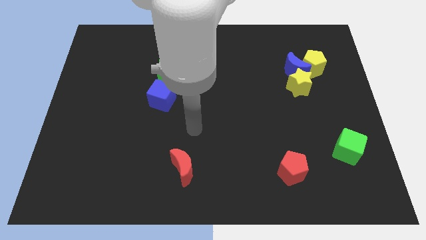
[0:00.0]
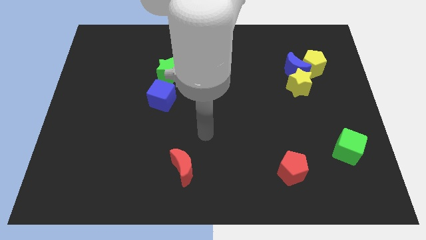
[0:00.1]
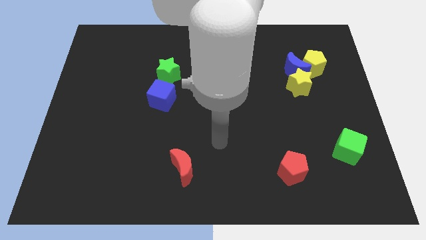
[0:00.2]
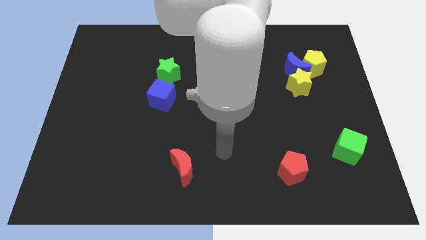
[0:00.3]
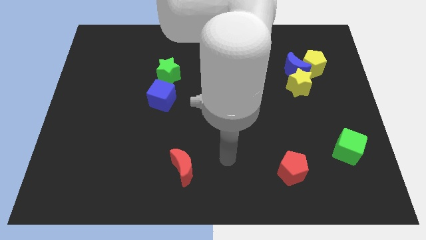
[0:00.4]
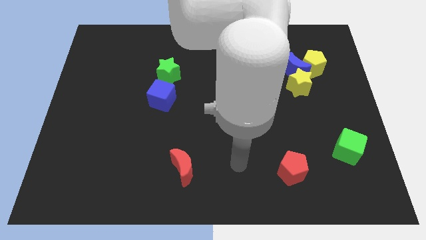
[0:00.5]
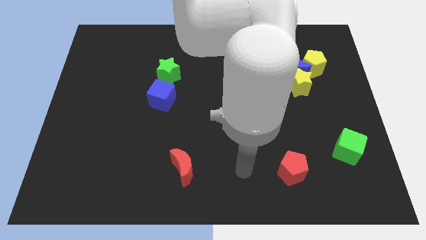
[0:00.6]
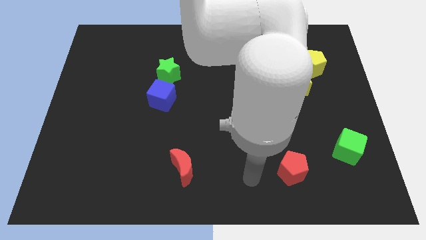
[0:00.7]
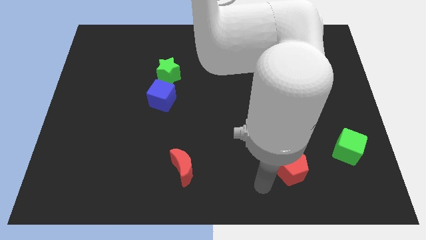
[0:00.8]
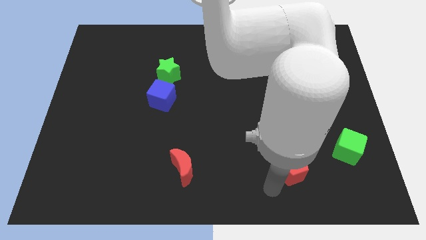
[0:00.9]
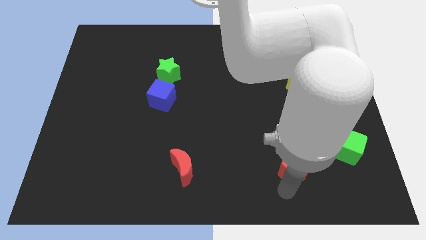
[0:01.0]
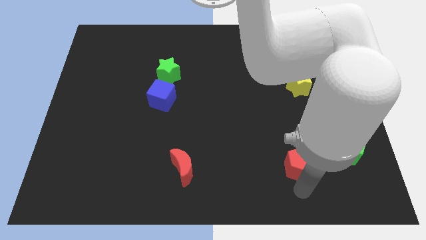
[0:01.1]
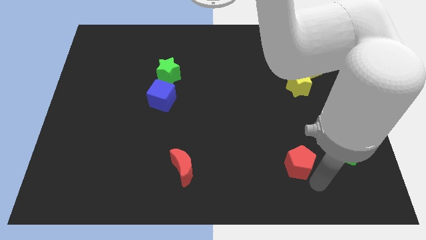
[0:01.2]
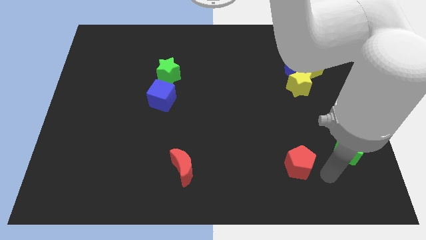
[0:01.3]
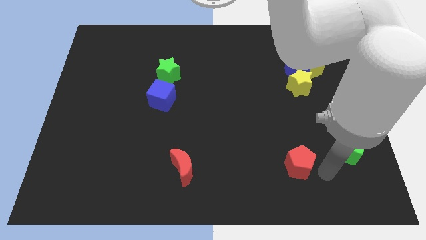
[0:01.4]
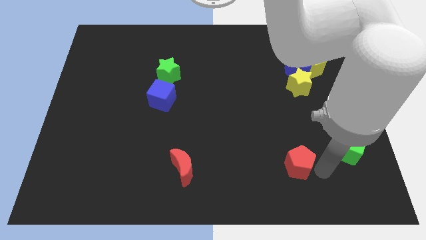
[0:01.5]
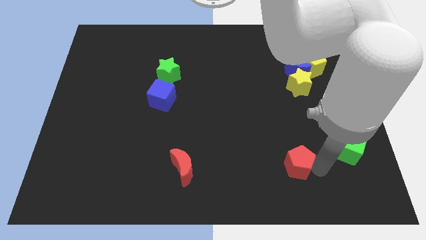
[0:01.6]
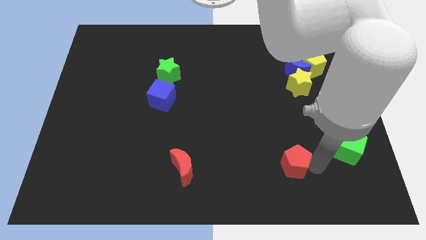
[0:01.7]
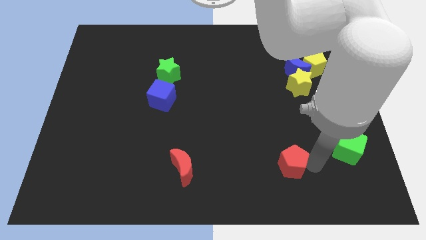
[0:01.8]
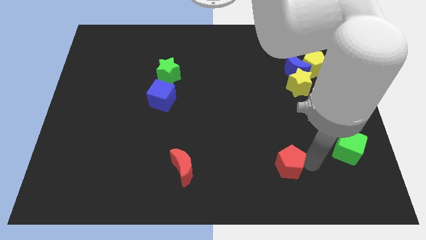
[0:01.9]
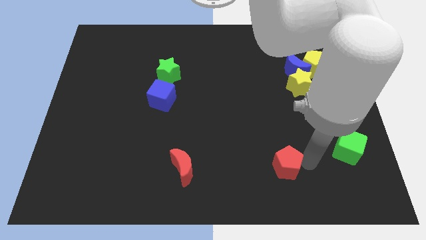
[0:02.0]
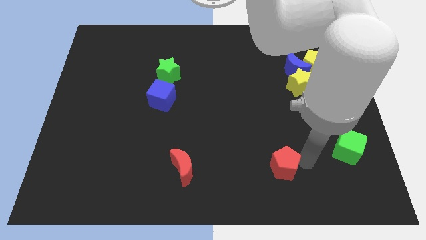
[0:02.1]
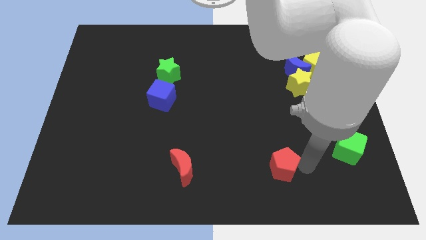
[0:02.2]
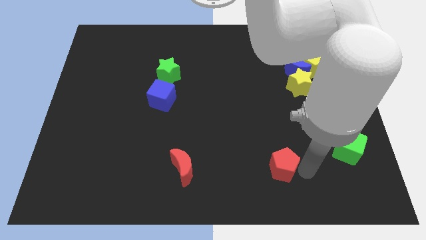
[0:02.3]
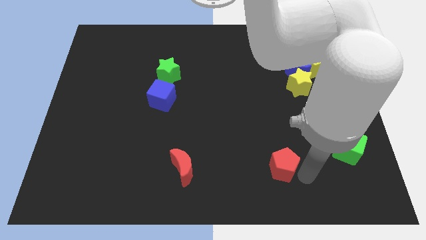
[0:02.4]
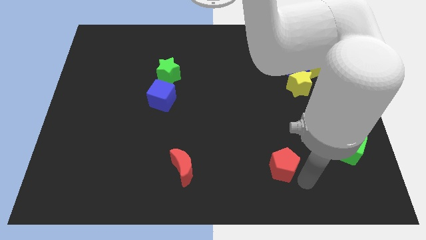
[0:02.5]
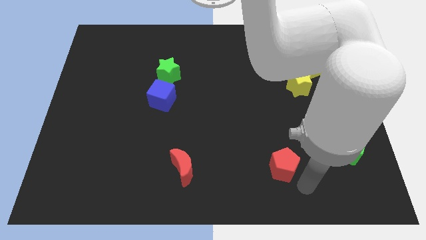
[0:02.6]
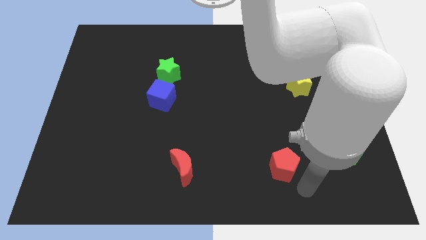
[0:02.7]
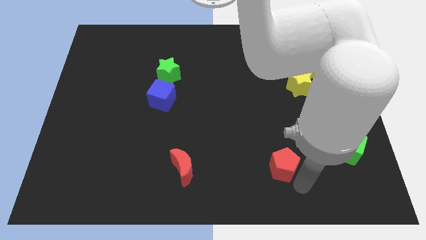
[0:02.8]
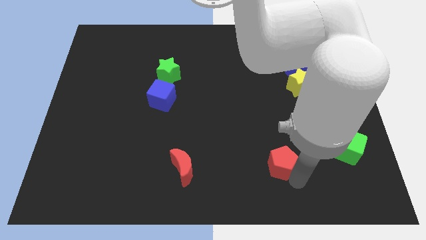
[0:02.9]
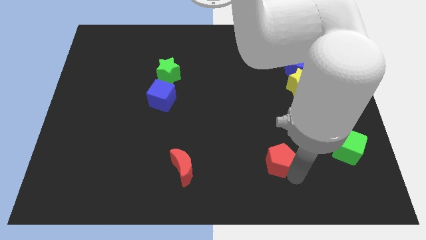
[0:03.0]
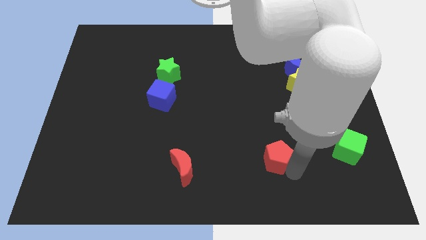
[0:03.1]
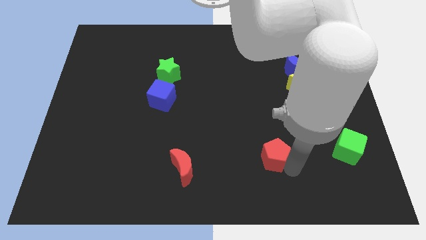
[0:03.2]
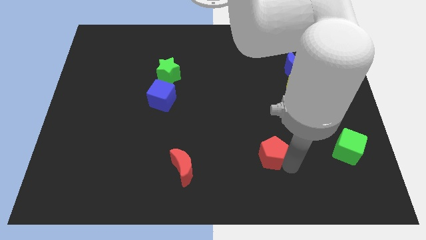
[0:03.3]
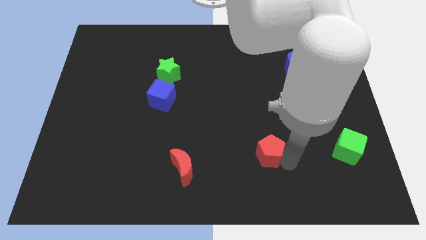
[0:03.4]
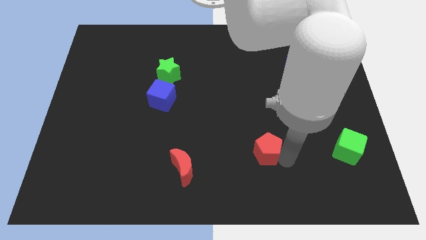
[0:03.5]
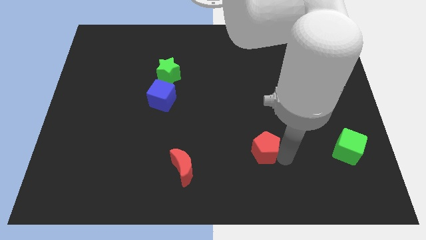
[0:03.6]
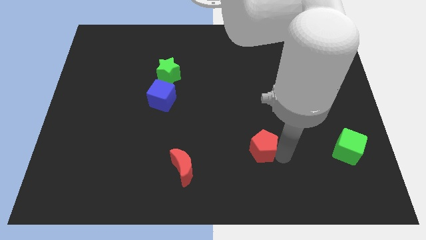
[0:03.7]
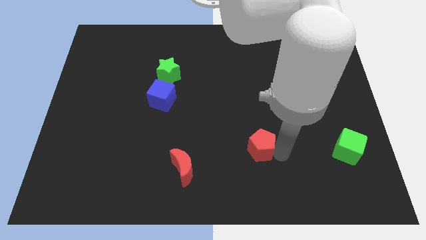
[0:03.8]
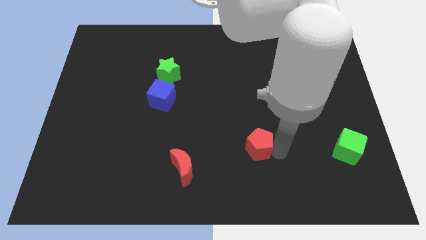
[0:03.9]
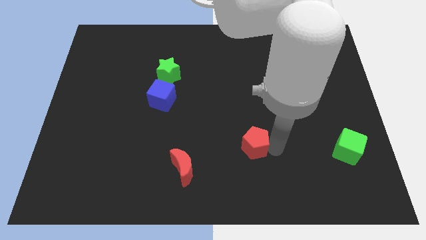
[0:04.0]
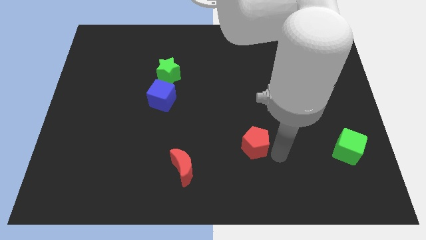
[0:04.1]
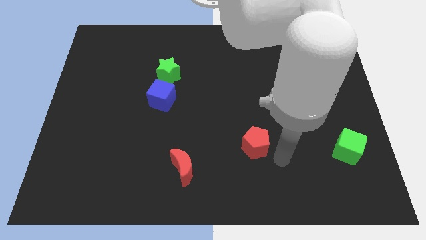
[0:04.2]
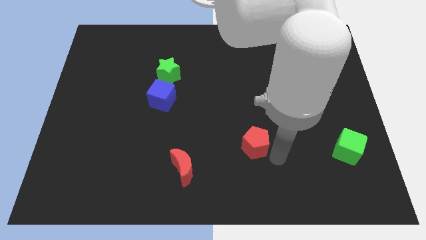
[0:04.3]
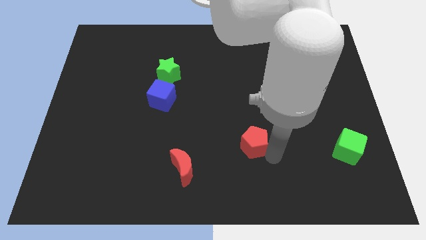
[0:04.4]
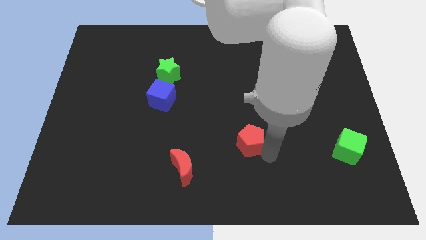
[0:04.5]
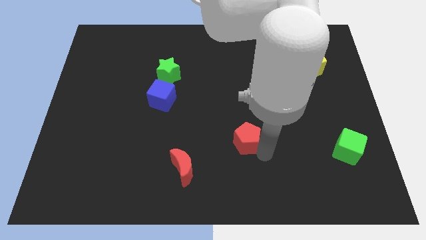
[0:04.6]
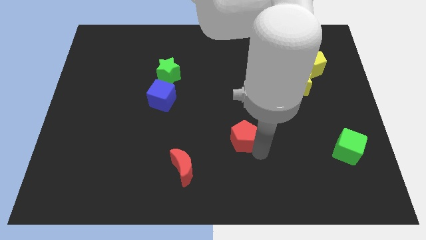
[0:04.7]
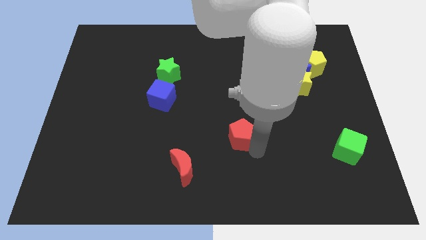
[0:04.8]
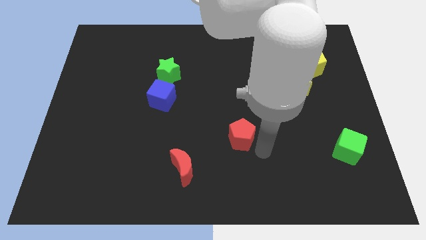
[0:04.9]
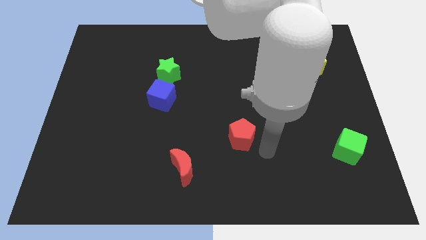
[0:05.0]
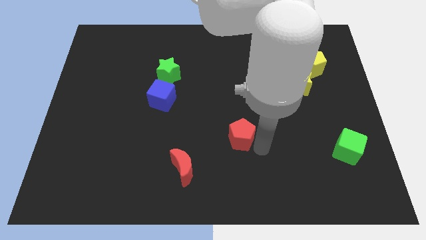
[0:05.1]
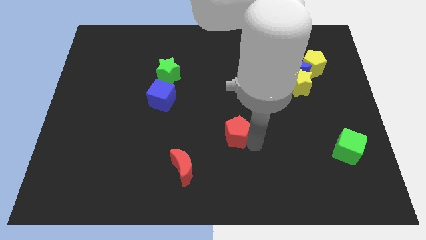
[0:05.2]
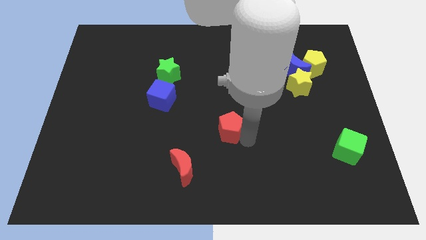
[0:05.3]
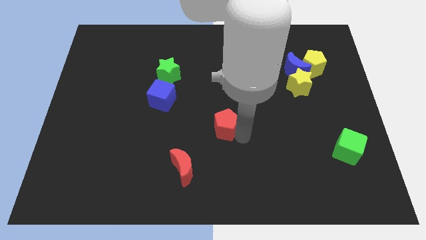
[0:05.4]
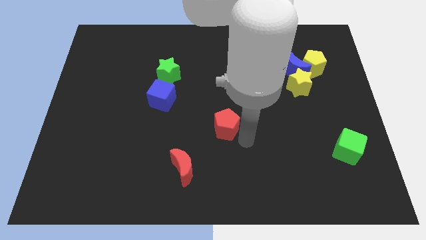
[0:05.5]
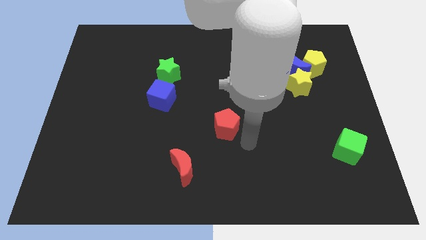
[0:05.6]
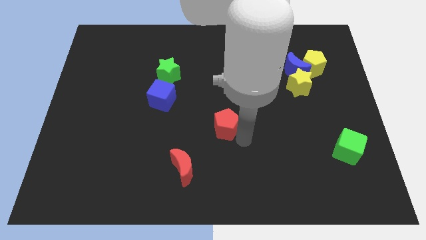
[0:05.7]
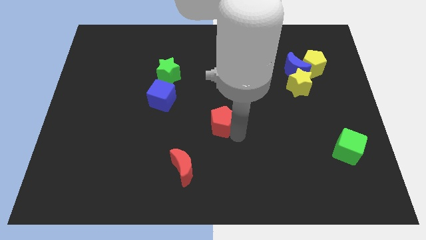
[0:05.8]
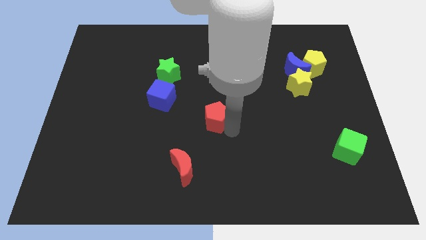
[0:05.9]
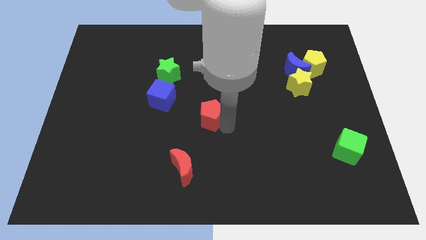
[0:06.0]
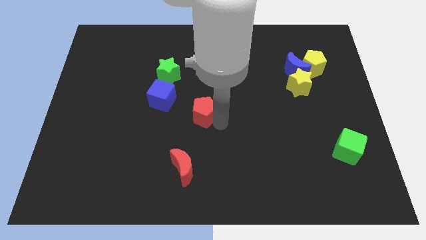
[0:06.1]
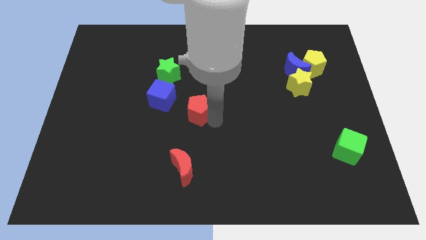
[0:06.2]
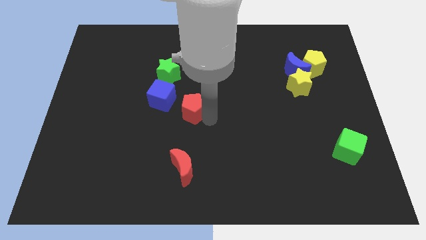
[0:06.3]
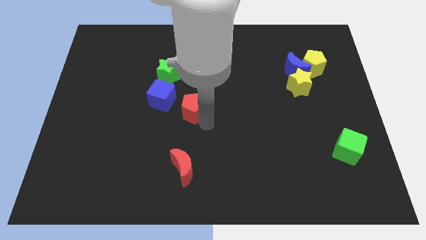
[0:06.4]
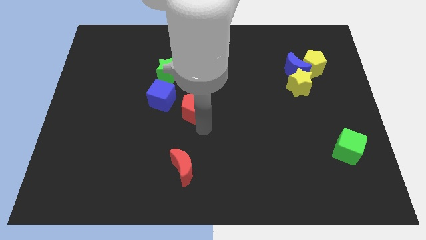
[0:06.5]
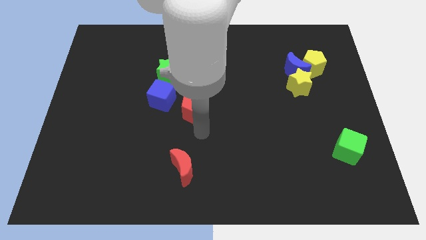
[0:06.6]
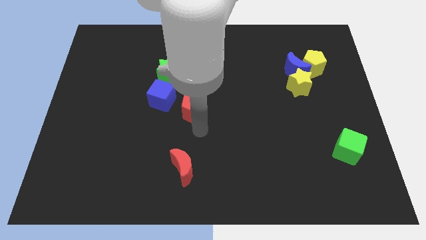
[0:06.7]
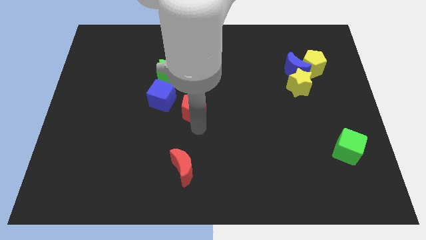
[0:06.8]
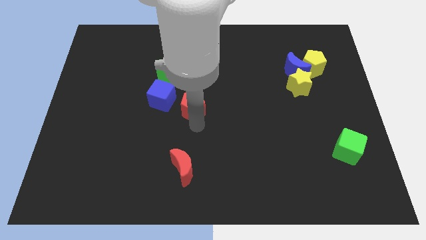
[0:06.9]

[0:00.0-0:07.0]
push the red pentagon to the bottom right of the green star

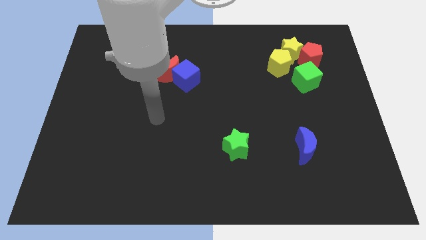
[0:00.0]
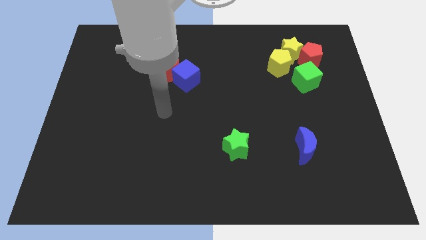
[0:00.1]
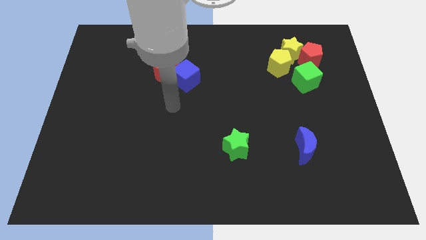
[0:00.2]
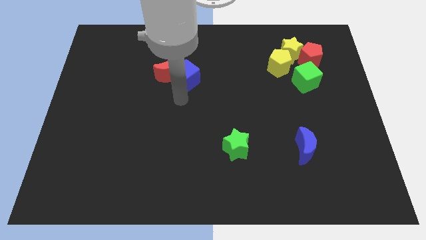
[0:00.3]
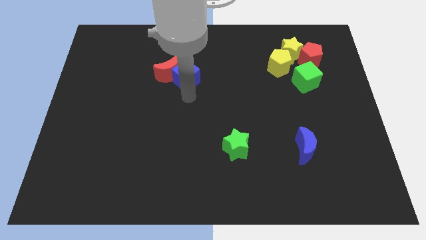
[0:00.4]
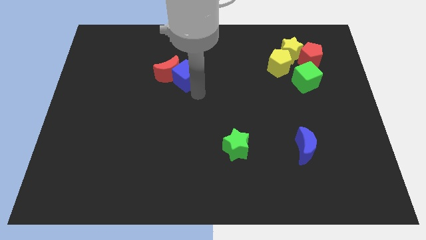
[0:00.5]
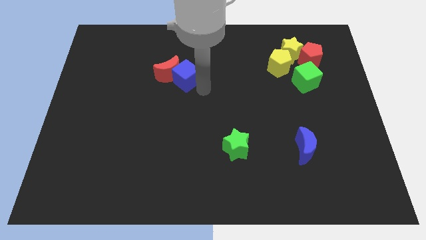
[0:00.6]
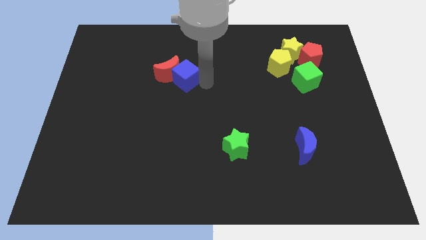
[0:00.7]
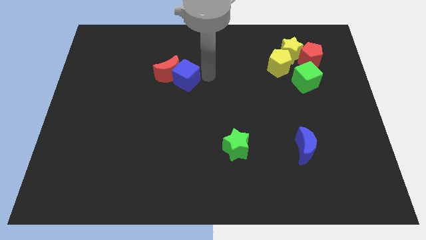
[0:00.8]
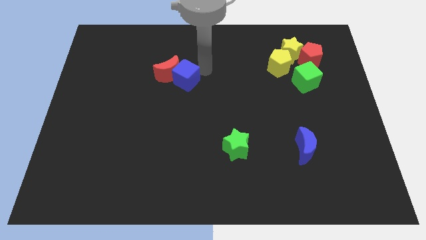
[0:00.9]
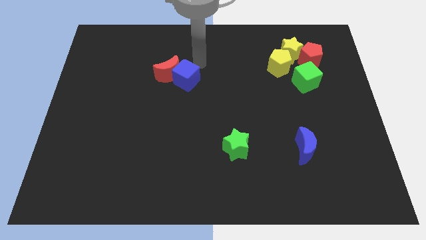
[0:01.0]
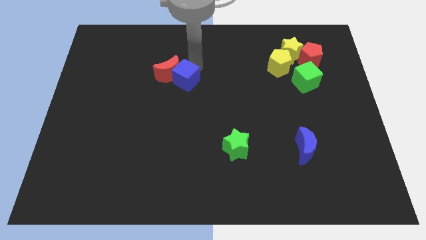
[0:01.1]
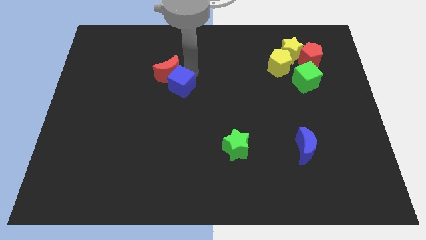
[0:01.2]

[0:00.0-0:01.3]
slide the blue cube to the bottom side of the red moon
